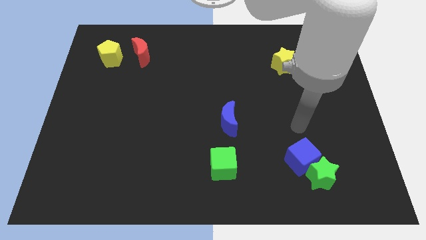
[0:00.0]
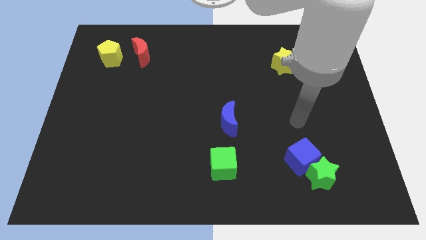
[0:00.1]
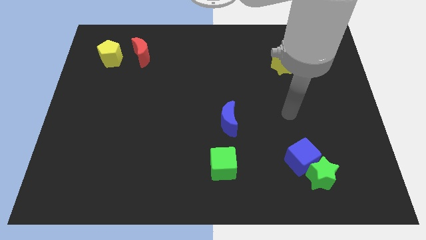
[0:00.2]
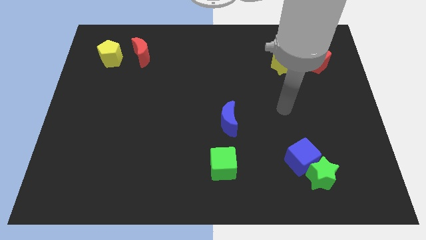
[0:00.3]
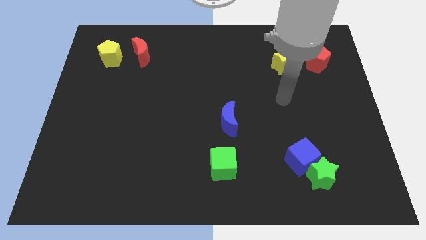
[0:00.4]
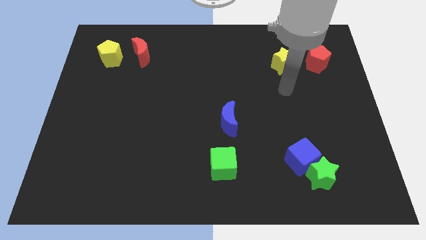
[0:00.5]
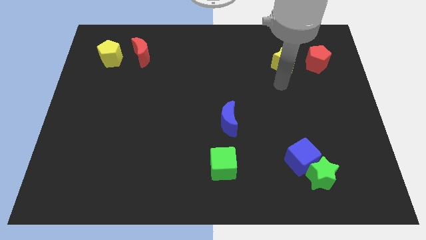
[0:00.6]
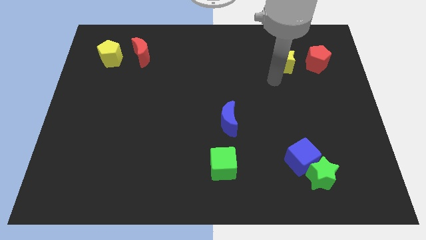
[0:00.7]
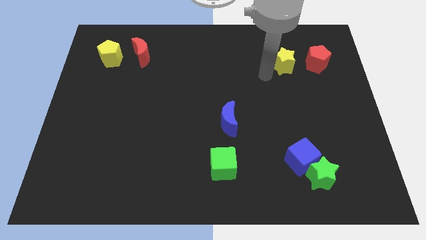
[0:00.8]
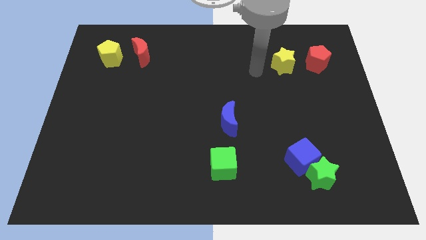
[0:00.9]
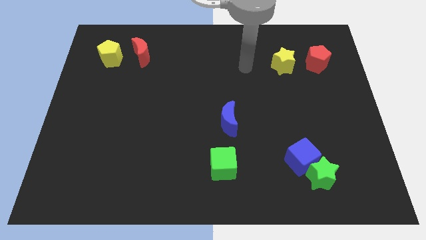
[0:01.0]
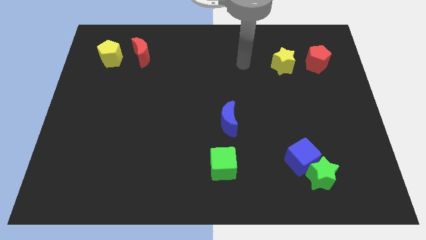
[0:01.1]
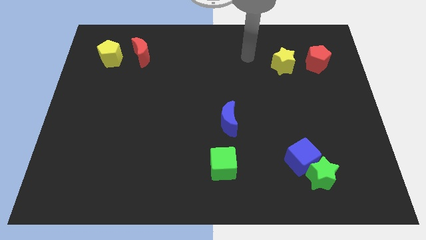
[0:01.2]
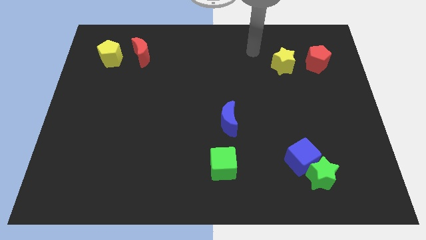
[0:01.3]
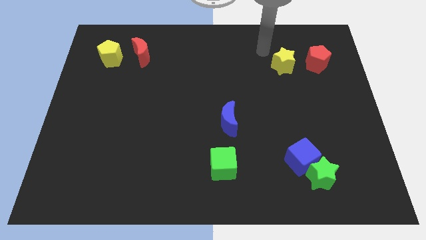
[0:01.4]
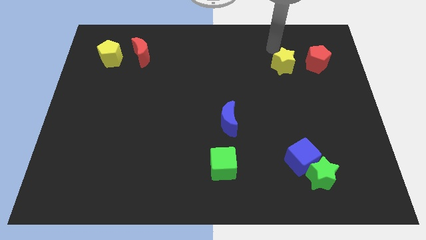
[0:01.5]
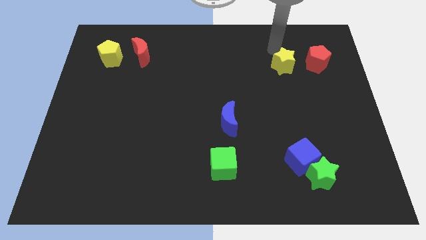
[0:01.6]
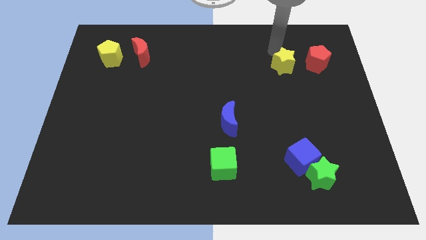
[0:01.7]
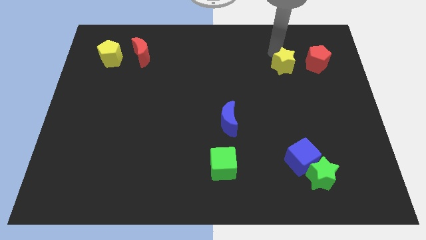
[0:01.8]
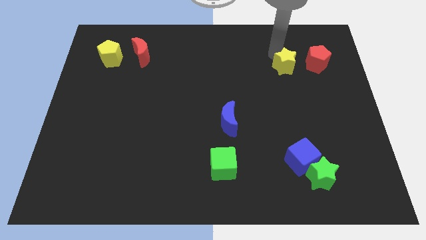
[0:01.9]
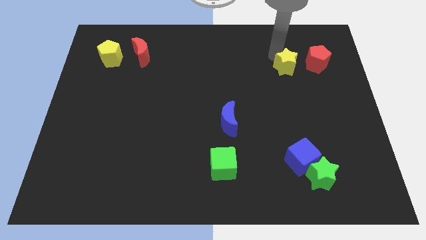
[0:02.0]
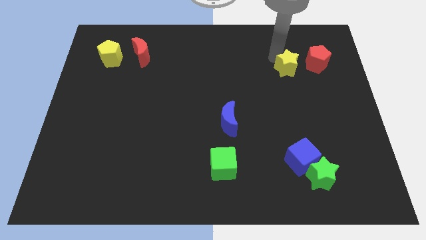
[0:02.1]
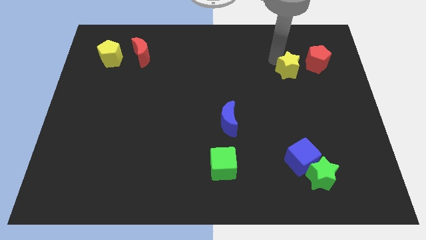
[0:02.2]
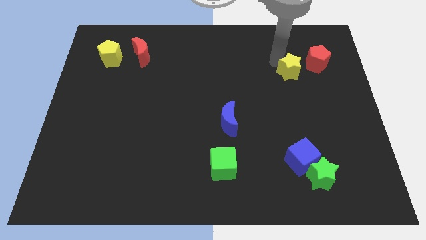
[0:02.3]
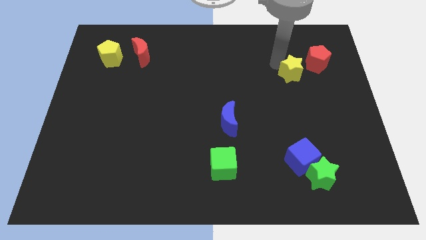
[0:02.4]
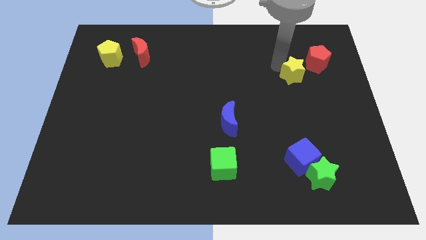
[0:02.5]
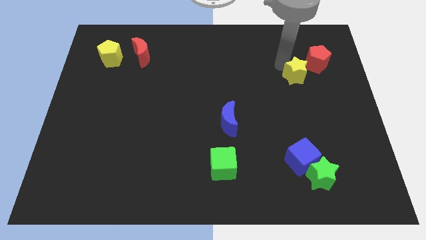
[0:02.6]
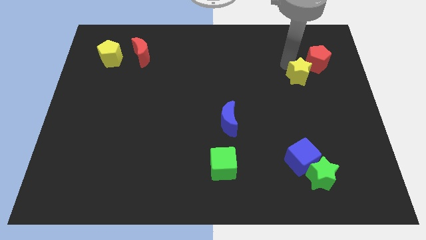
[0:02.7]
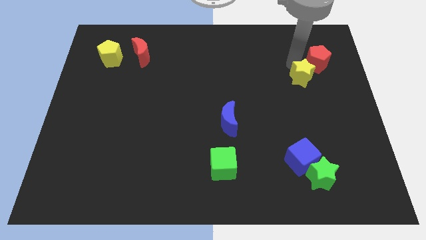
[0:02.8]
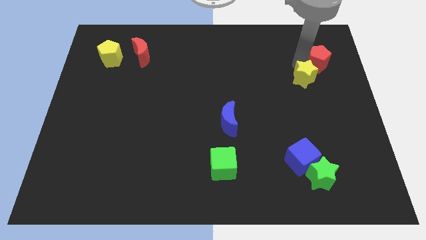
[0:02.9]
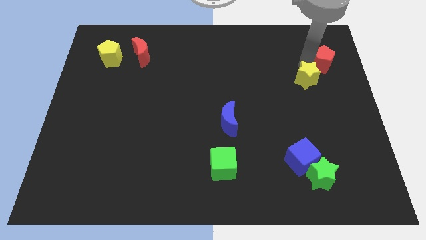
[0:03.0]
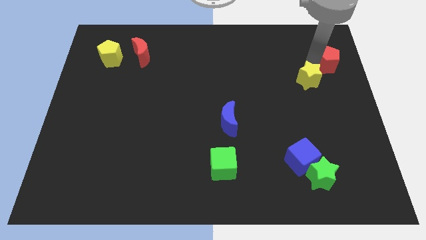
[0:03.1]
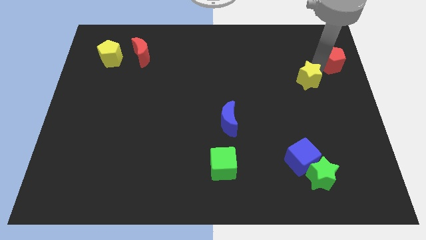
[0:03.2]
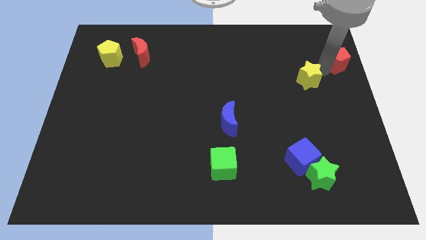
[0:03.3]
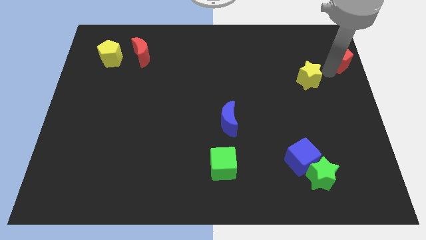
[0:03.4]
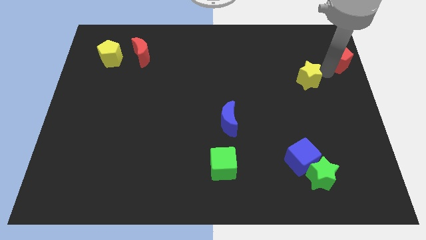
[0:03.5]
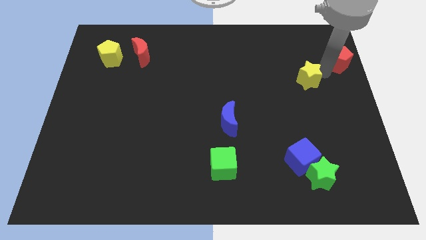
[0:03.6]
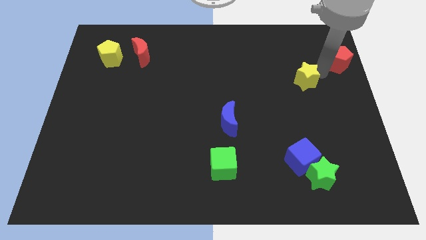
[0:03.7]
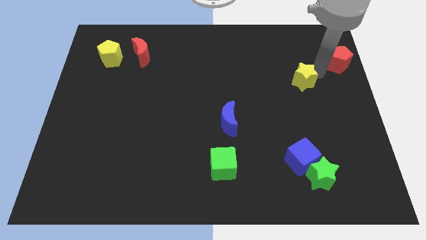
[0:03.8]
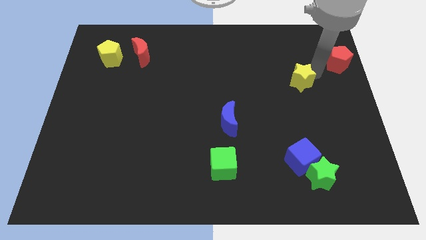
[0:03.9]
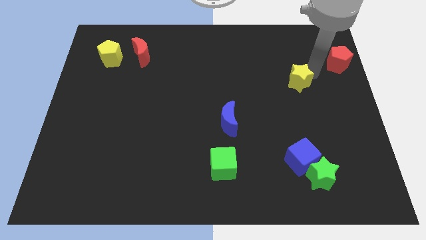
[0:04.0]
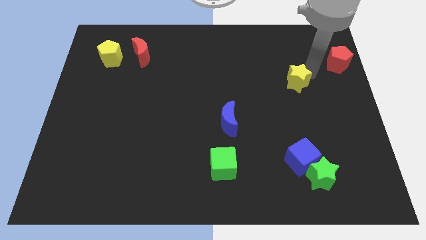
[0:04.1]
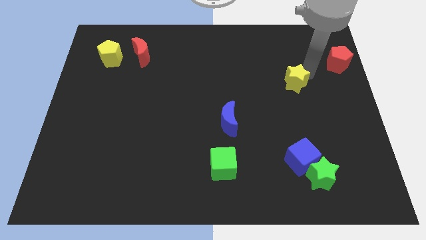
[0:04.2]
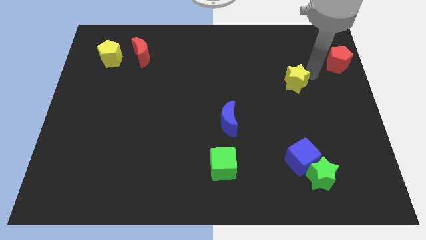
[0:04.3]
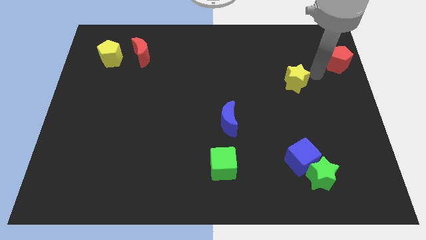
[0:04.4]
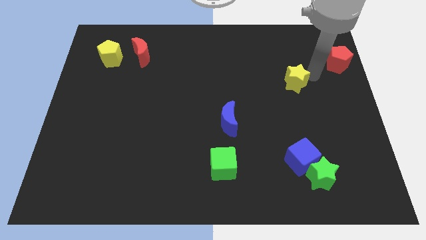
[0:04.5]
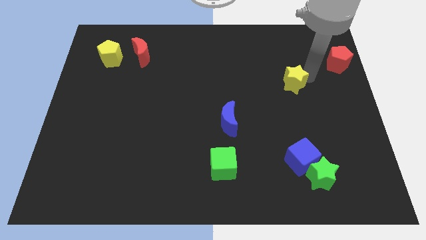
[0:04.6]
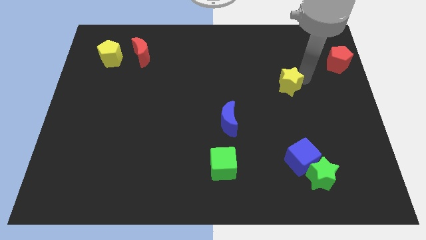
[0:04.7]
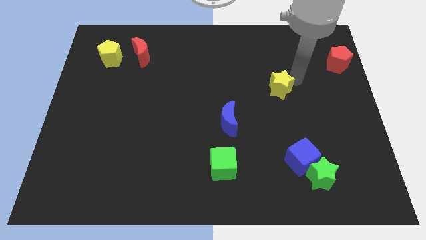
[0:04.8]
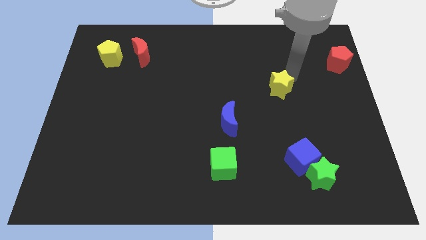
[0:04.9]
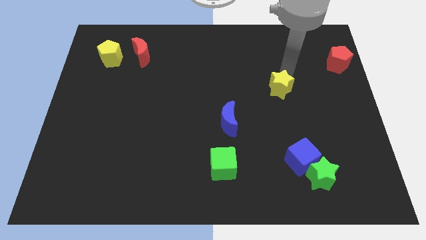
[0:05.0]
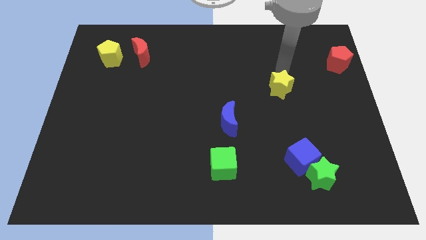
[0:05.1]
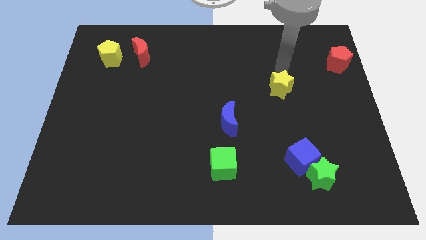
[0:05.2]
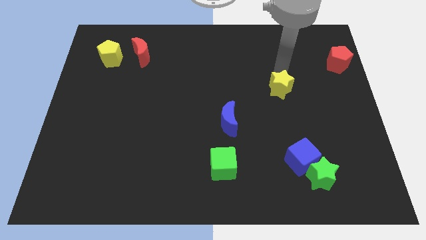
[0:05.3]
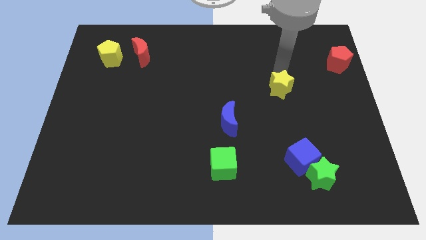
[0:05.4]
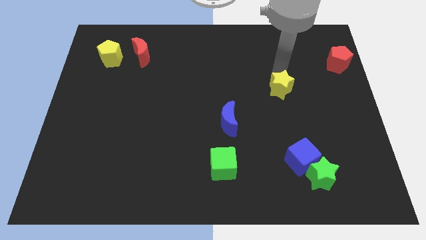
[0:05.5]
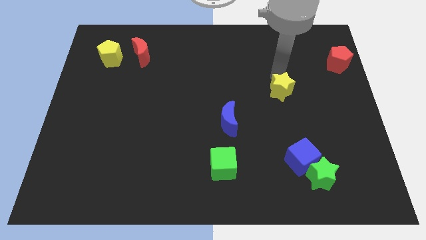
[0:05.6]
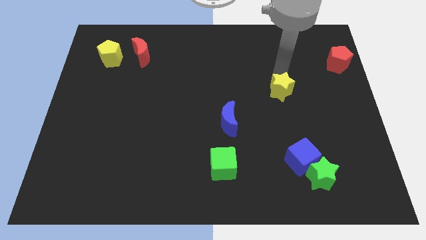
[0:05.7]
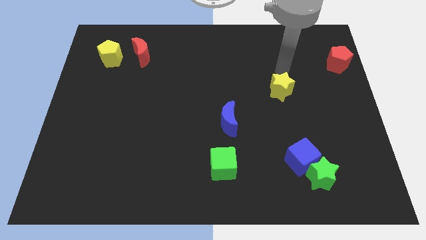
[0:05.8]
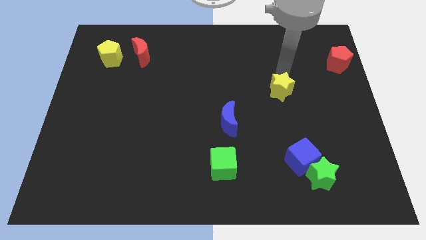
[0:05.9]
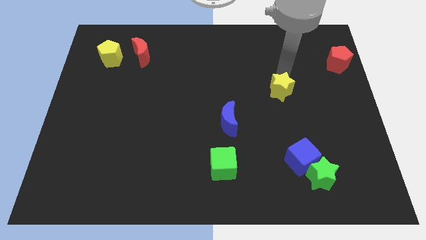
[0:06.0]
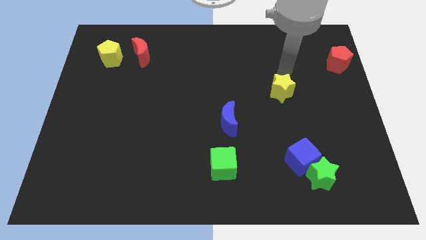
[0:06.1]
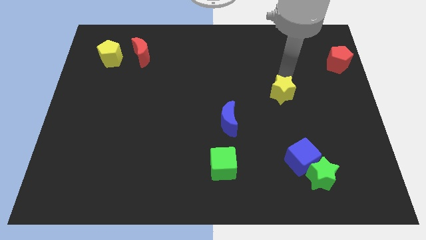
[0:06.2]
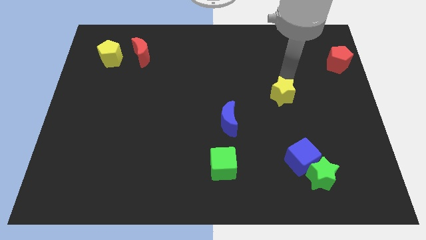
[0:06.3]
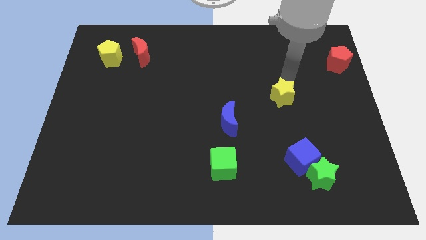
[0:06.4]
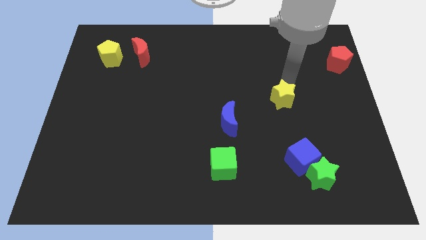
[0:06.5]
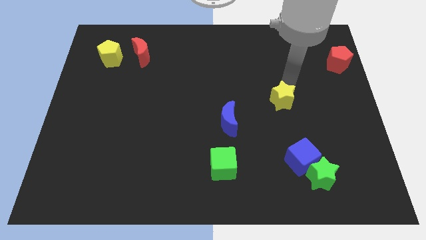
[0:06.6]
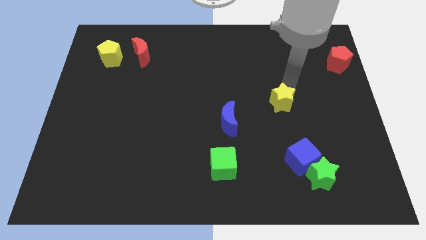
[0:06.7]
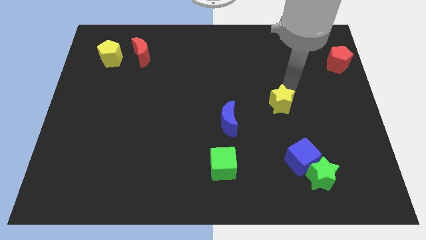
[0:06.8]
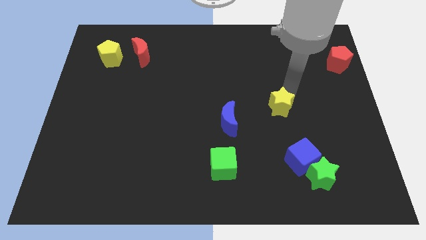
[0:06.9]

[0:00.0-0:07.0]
push the yellow star right of the blue moon
